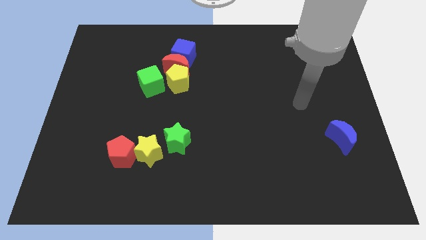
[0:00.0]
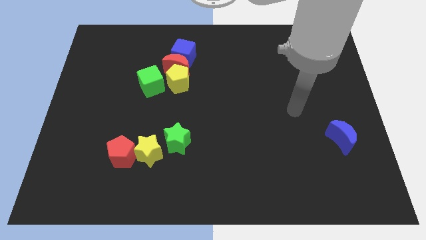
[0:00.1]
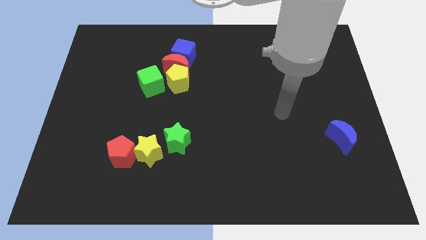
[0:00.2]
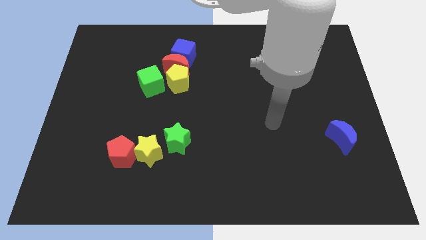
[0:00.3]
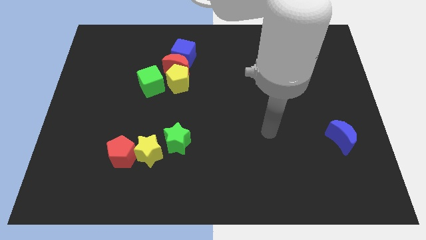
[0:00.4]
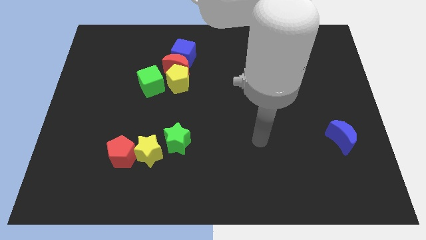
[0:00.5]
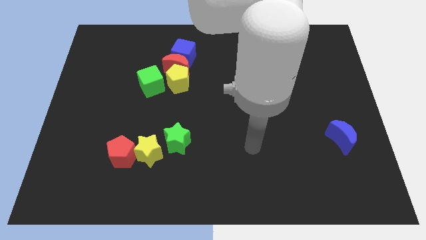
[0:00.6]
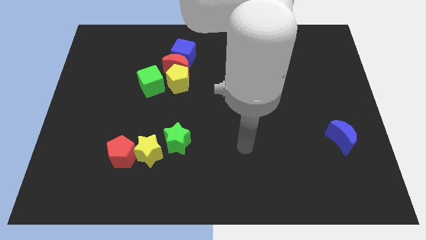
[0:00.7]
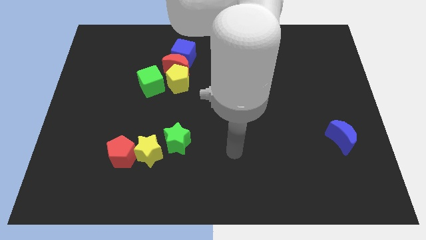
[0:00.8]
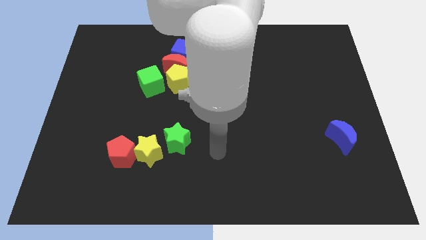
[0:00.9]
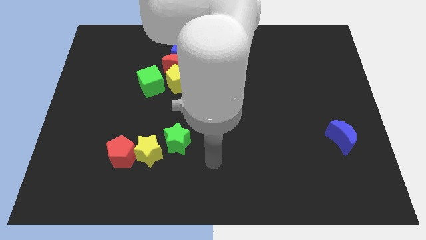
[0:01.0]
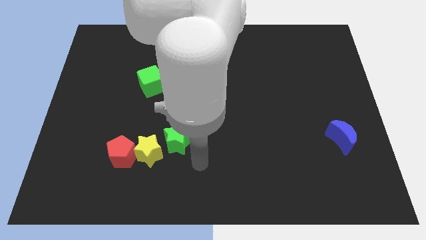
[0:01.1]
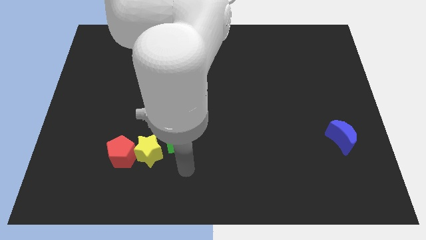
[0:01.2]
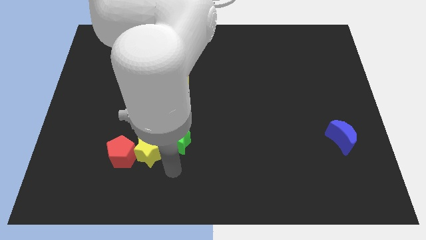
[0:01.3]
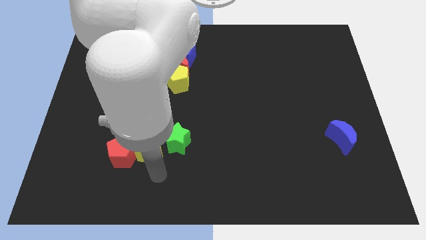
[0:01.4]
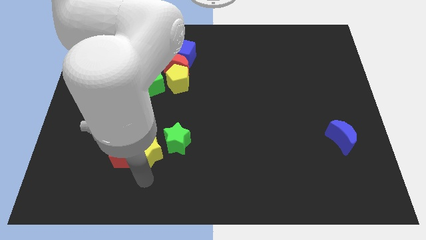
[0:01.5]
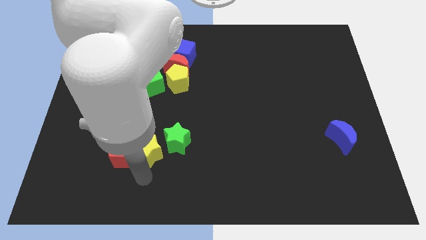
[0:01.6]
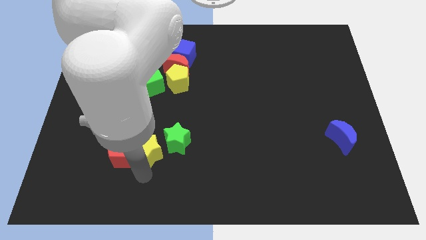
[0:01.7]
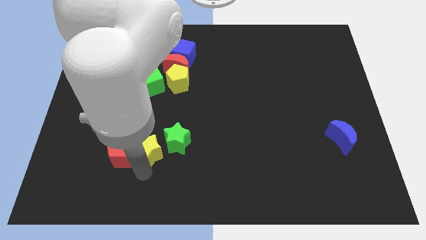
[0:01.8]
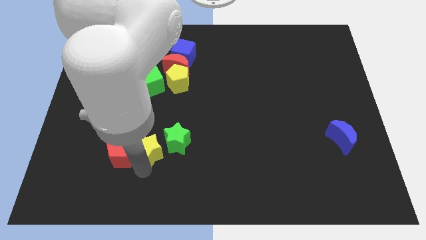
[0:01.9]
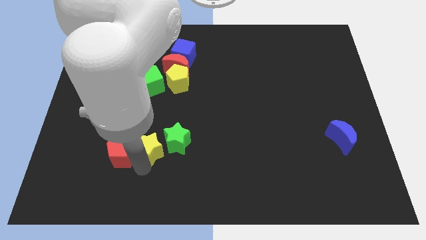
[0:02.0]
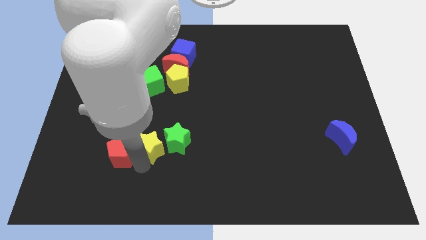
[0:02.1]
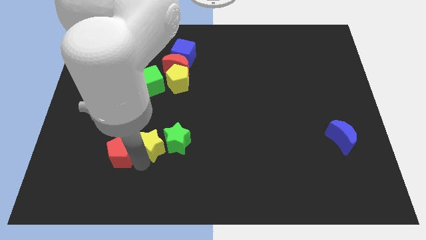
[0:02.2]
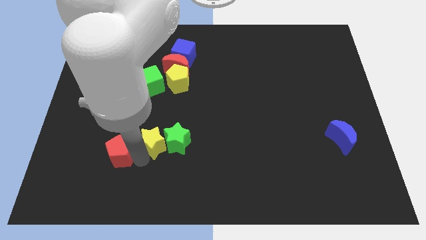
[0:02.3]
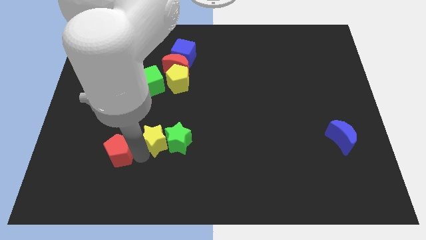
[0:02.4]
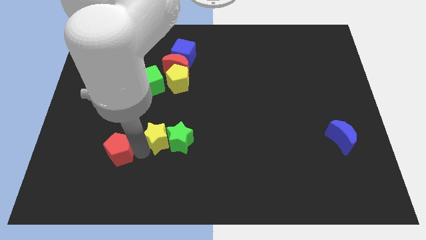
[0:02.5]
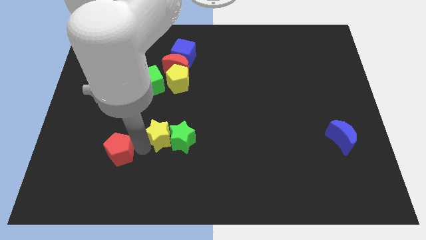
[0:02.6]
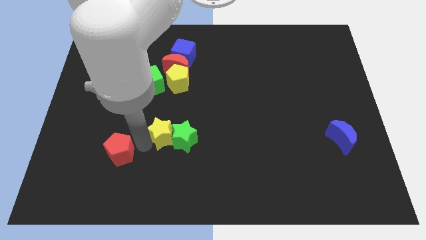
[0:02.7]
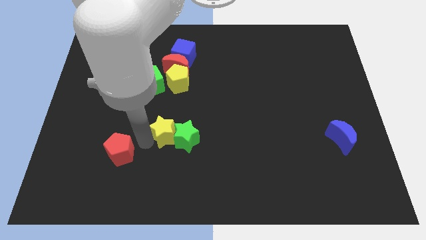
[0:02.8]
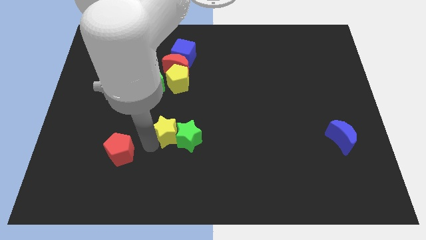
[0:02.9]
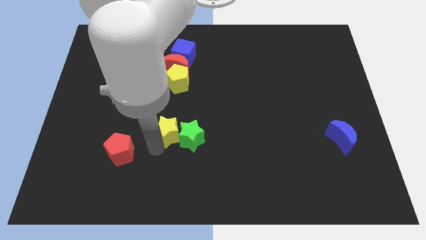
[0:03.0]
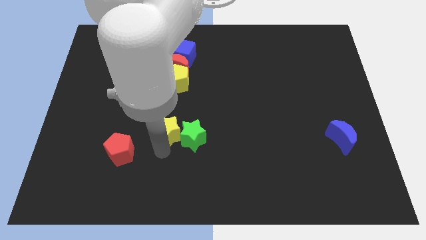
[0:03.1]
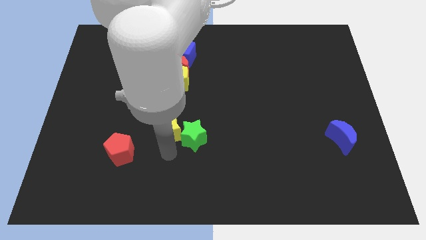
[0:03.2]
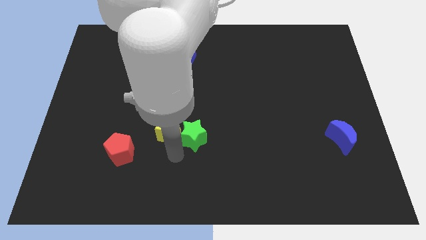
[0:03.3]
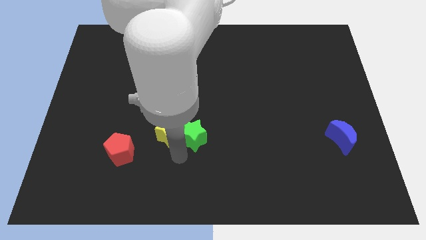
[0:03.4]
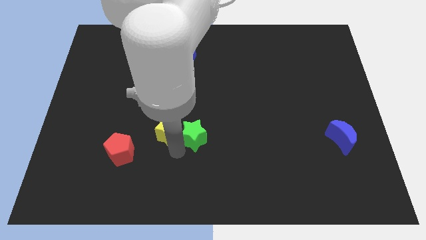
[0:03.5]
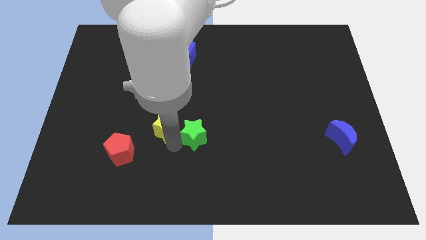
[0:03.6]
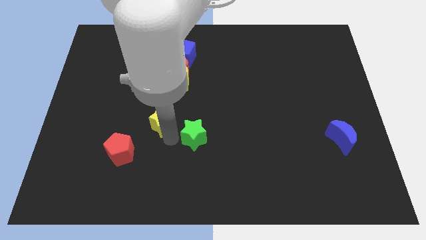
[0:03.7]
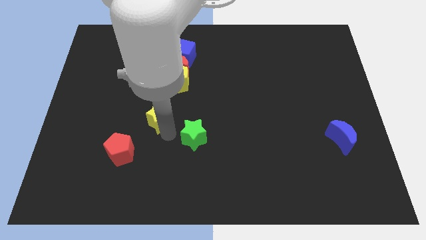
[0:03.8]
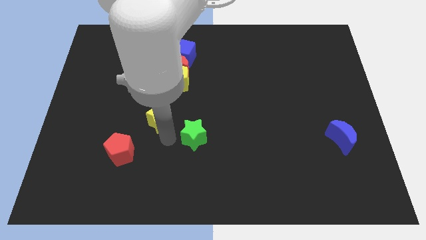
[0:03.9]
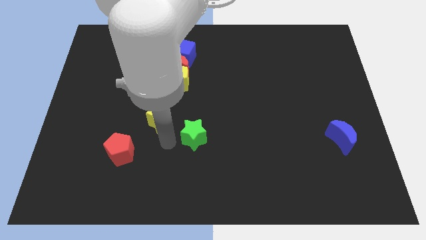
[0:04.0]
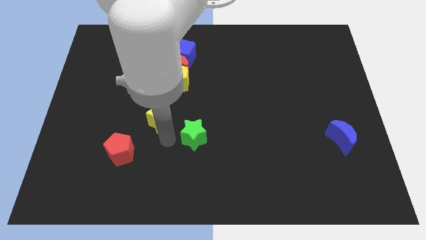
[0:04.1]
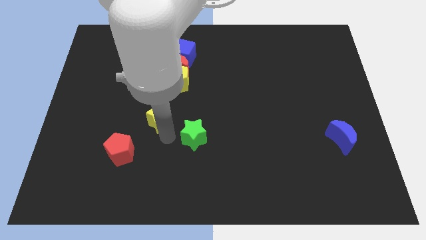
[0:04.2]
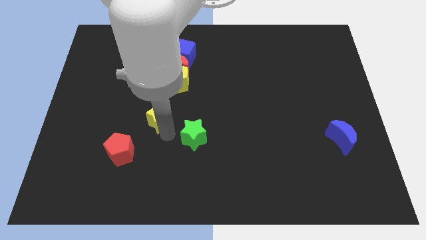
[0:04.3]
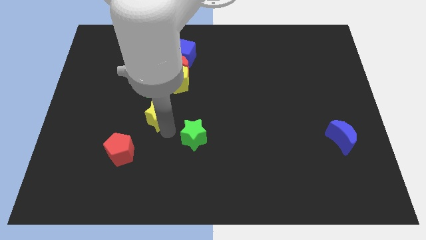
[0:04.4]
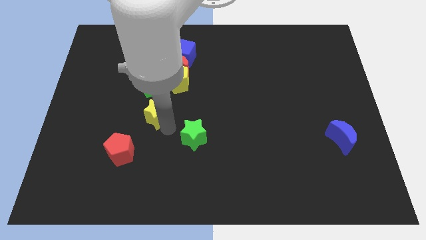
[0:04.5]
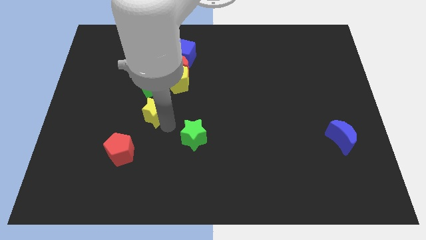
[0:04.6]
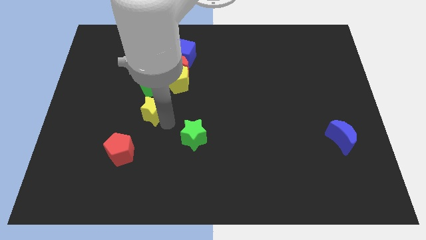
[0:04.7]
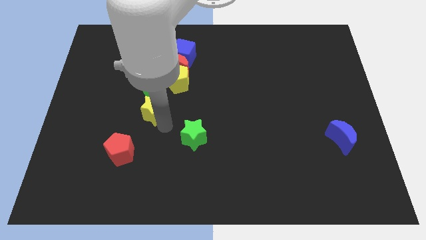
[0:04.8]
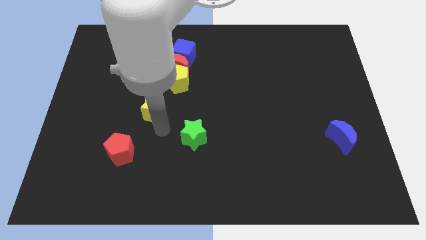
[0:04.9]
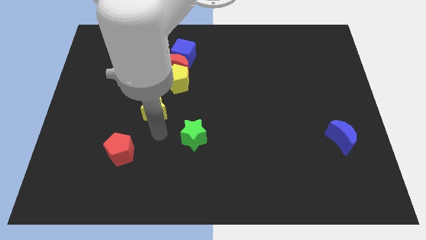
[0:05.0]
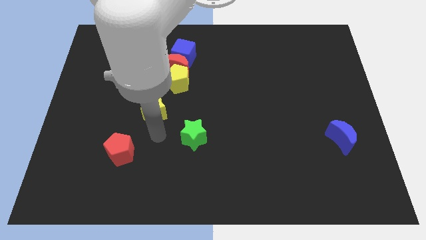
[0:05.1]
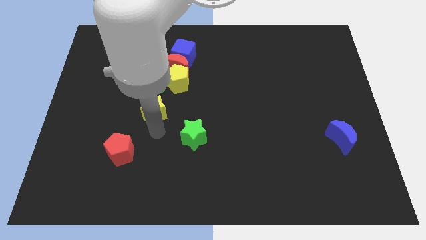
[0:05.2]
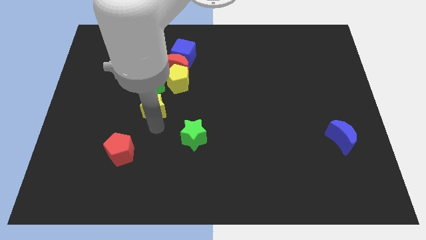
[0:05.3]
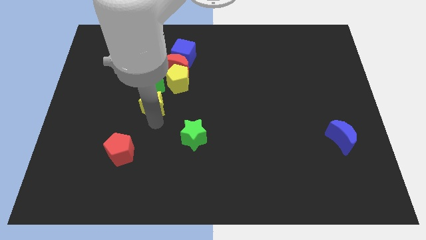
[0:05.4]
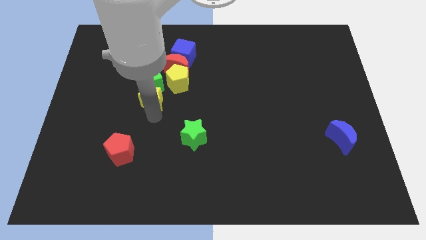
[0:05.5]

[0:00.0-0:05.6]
move the yellow star close to the green cube

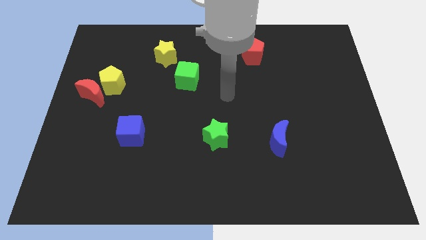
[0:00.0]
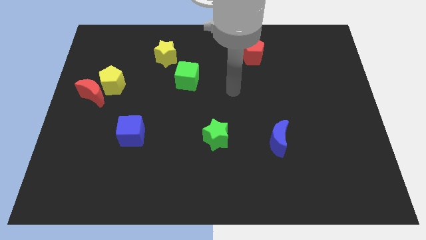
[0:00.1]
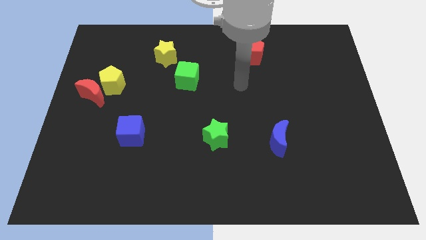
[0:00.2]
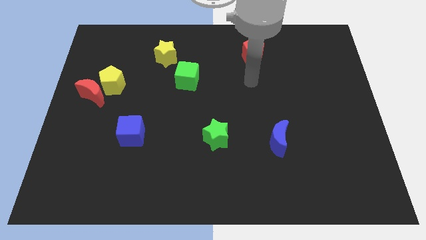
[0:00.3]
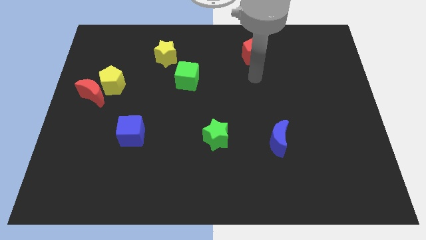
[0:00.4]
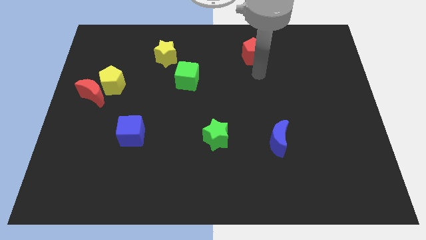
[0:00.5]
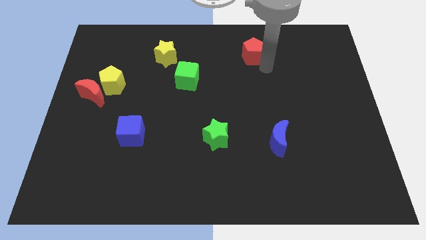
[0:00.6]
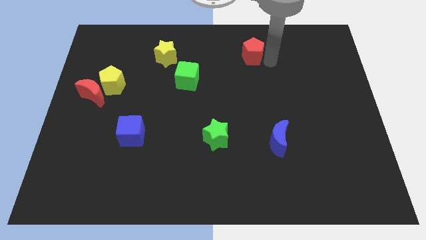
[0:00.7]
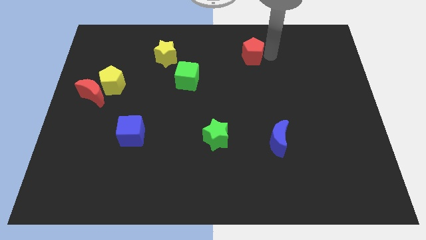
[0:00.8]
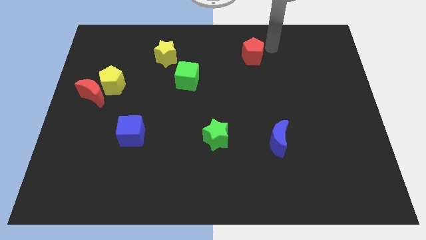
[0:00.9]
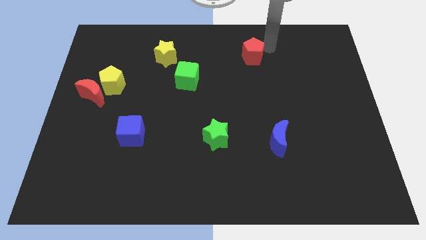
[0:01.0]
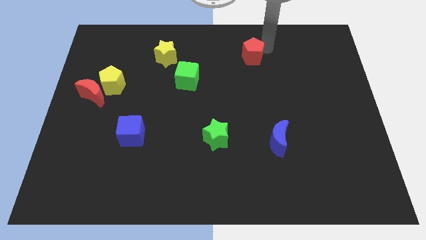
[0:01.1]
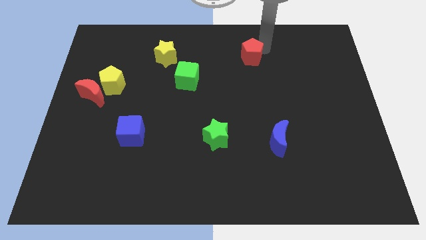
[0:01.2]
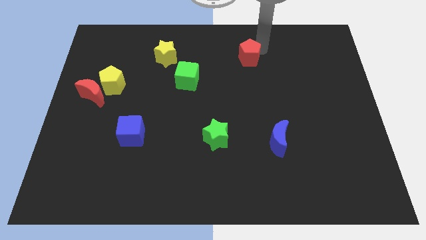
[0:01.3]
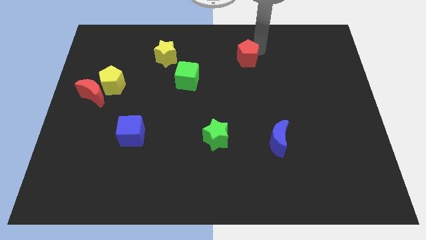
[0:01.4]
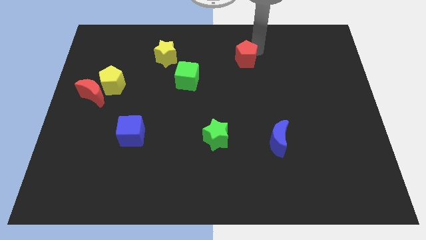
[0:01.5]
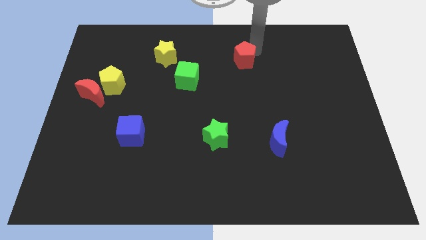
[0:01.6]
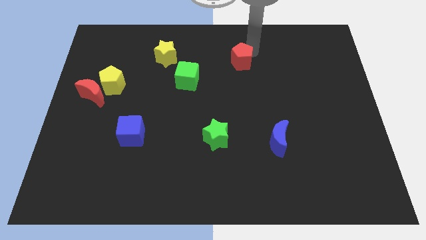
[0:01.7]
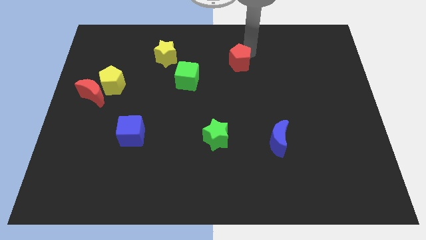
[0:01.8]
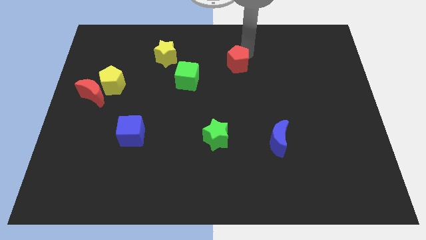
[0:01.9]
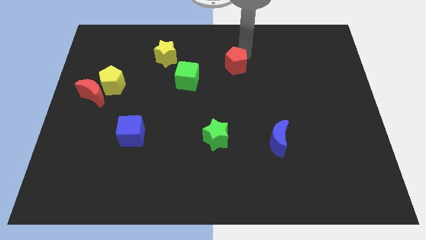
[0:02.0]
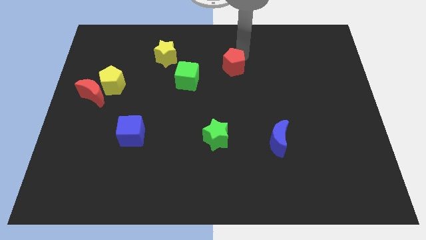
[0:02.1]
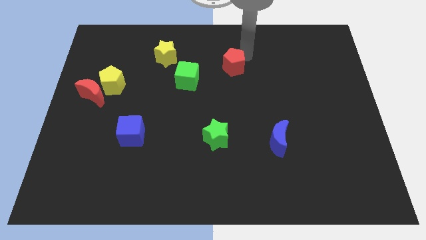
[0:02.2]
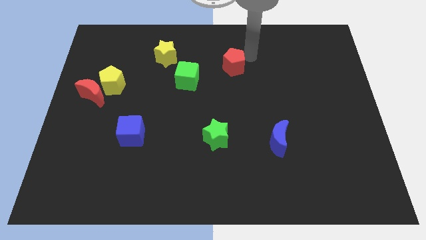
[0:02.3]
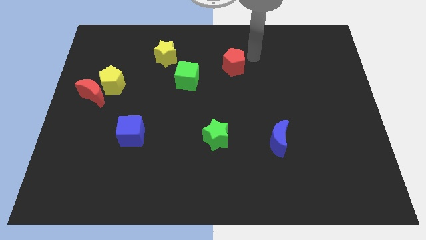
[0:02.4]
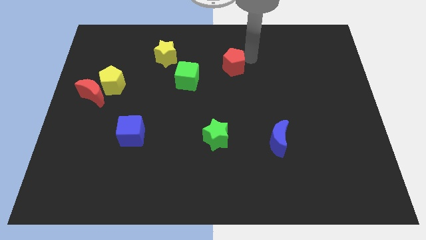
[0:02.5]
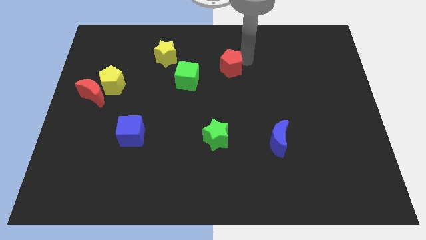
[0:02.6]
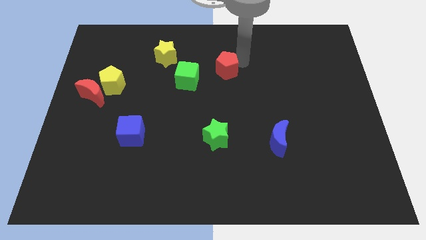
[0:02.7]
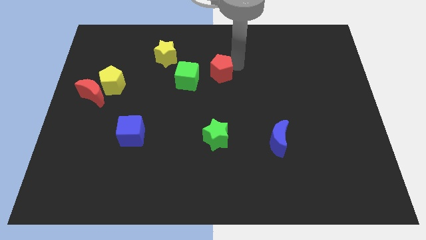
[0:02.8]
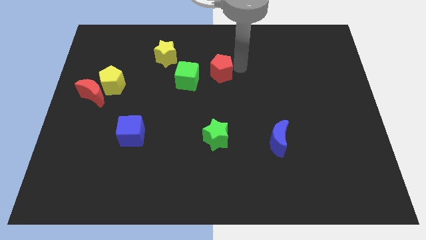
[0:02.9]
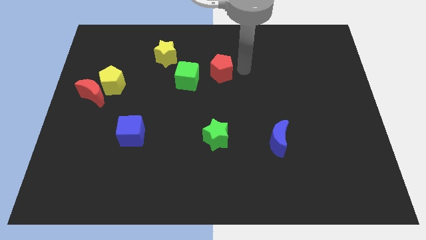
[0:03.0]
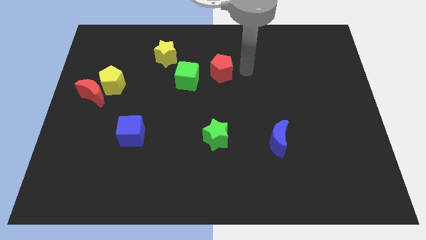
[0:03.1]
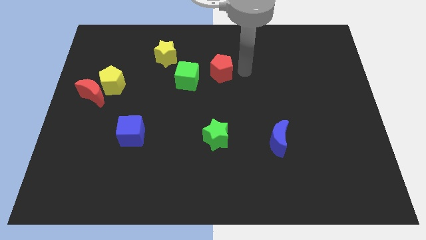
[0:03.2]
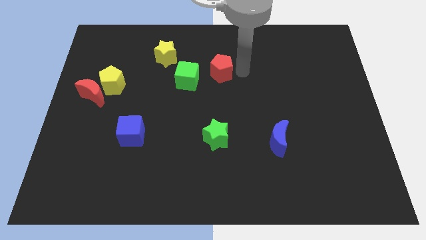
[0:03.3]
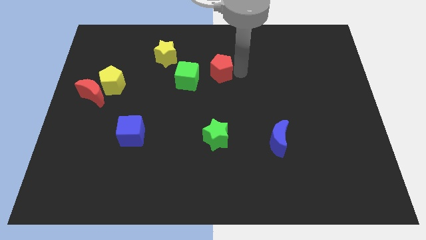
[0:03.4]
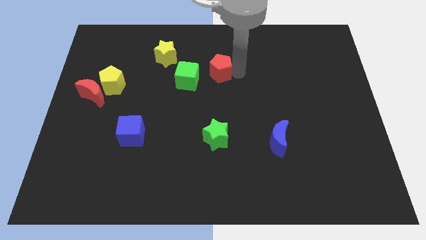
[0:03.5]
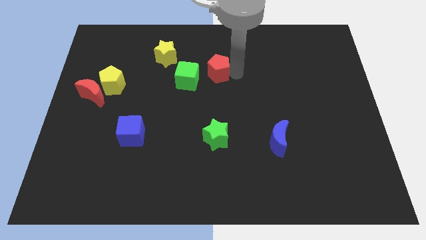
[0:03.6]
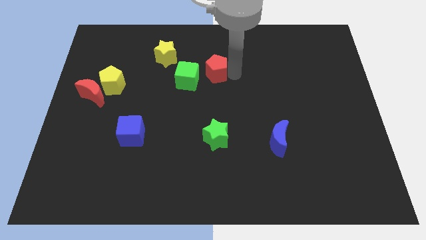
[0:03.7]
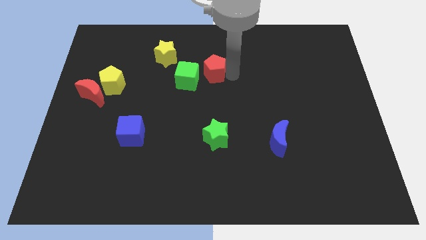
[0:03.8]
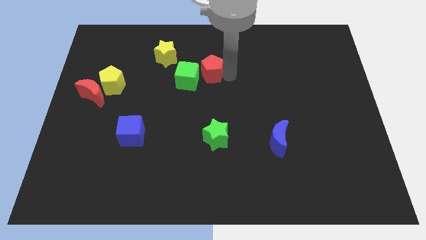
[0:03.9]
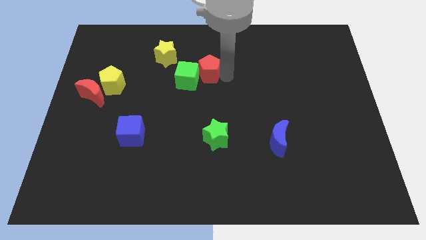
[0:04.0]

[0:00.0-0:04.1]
put the red pentagon next to the green cube
